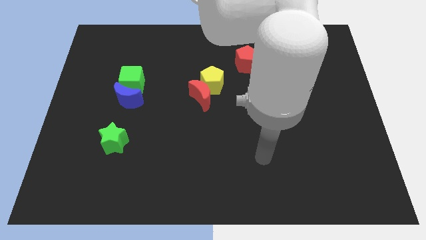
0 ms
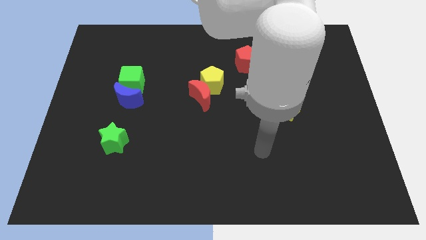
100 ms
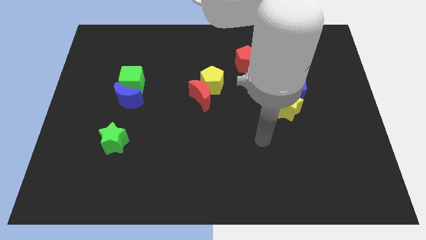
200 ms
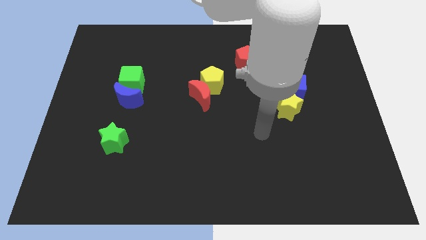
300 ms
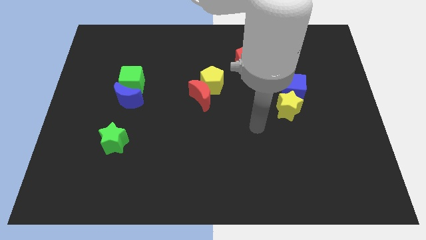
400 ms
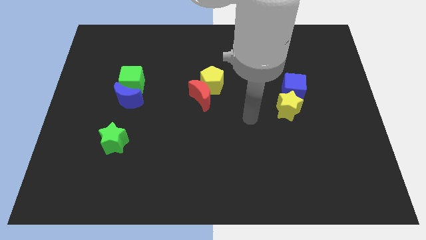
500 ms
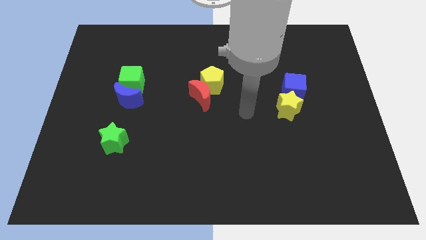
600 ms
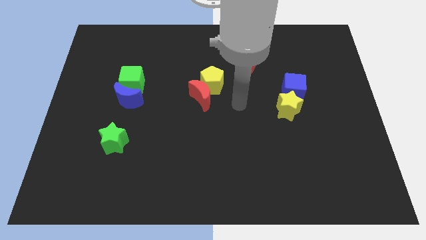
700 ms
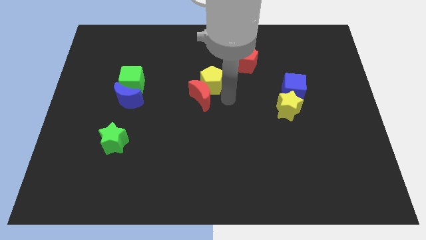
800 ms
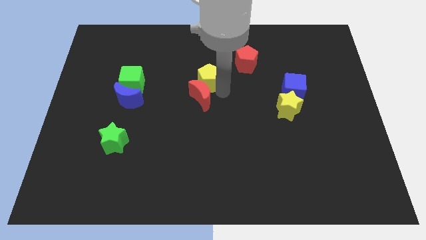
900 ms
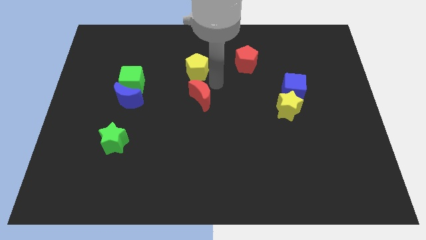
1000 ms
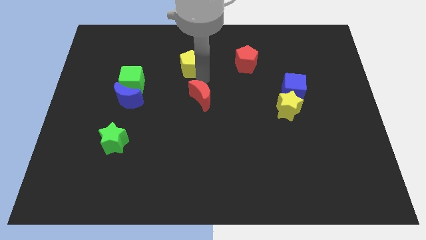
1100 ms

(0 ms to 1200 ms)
move the red moon away from the yellow pentagon

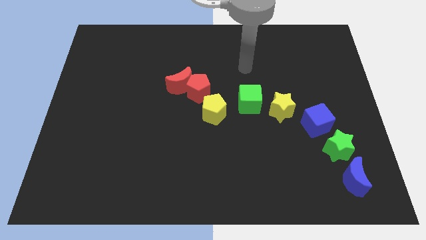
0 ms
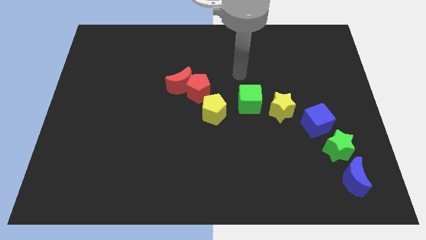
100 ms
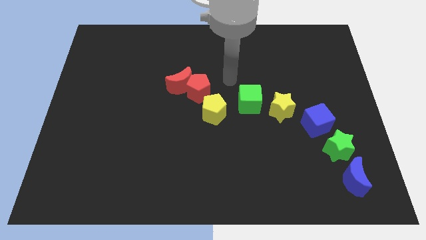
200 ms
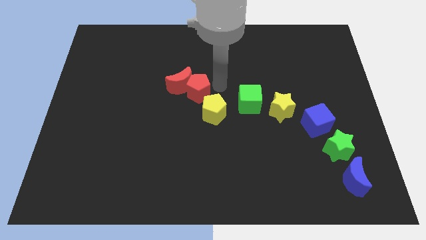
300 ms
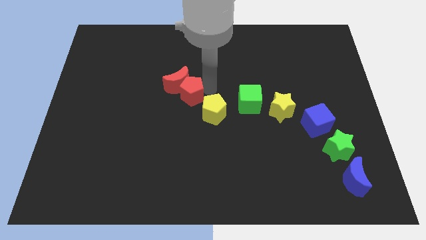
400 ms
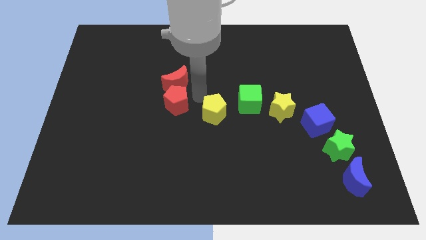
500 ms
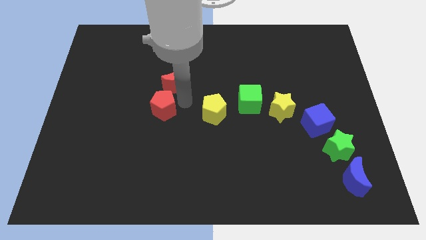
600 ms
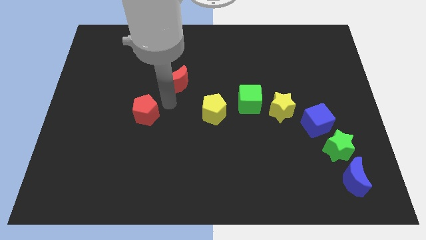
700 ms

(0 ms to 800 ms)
move the red moon away from the red pentagon

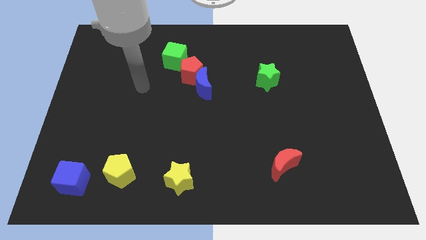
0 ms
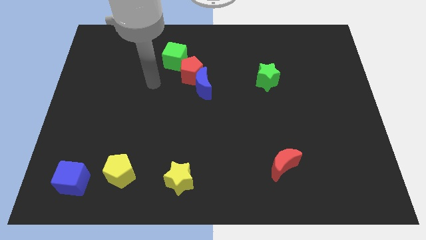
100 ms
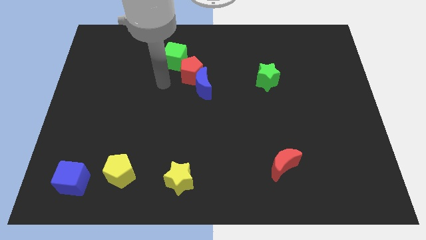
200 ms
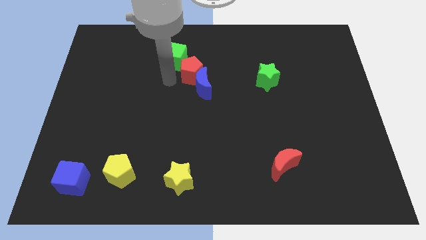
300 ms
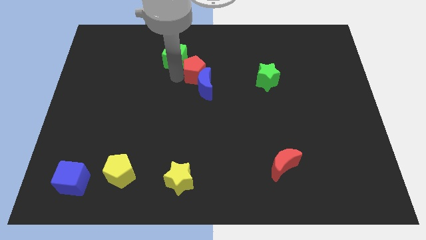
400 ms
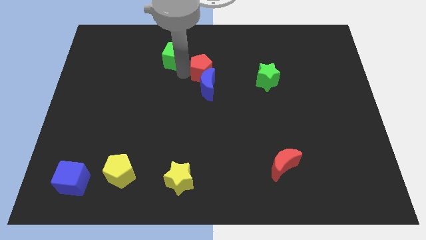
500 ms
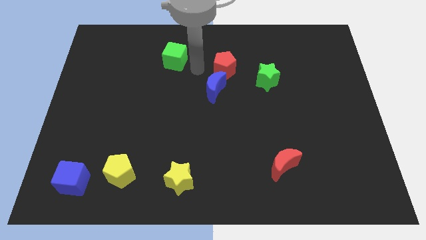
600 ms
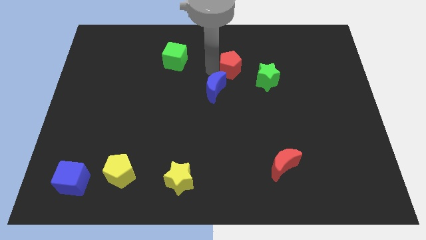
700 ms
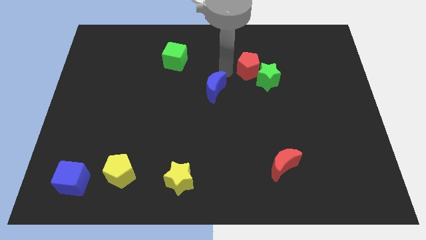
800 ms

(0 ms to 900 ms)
pull the blue moon apart from the red pentagon

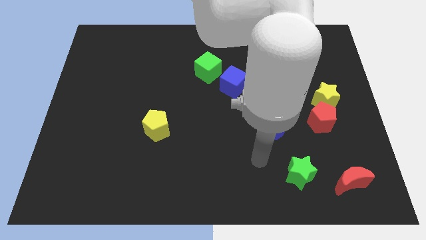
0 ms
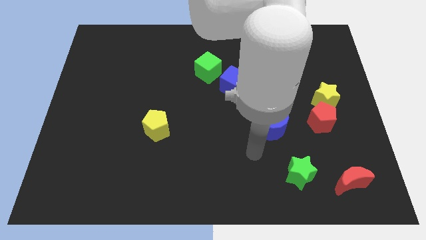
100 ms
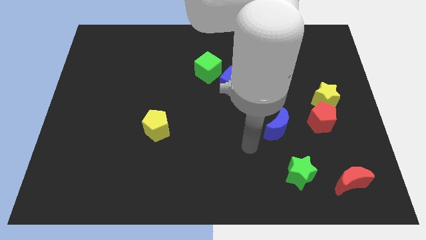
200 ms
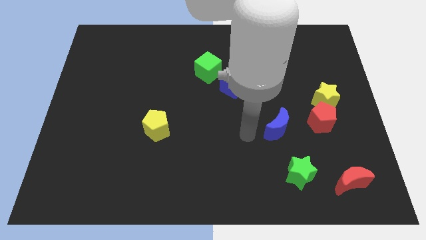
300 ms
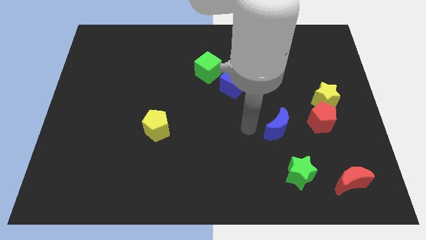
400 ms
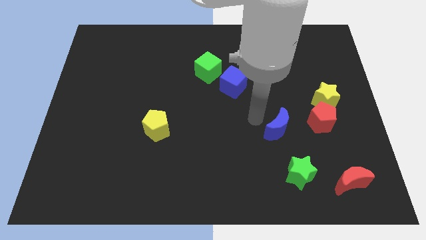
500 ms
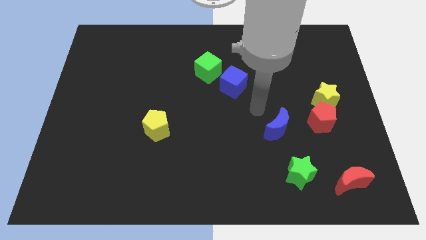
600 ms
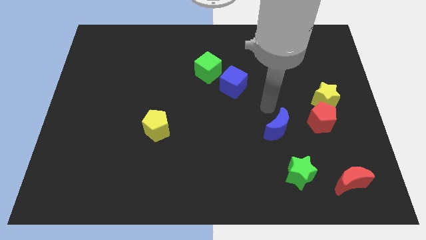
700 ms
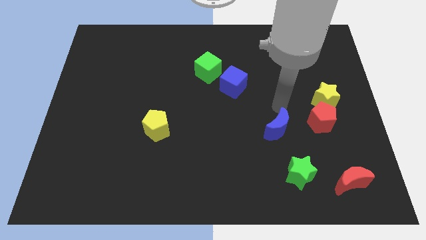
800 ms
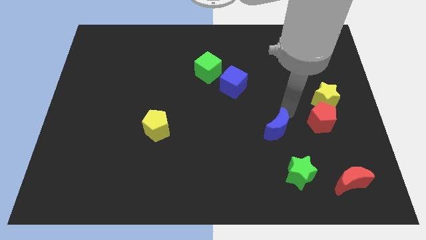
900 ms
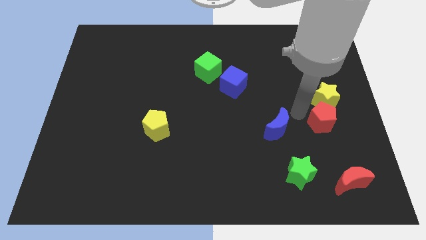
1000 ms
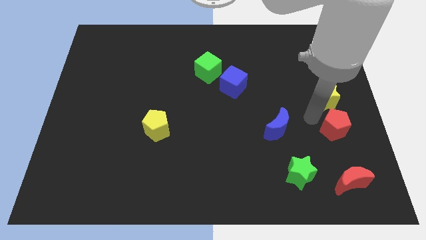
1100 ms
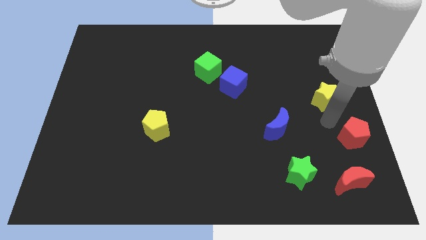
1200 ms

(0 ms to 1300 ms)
move the yellow star away from the red pentagon

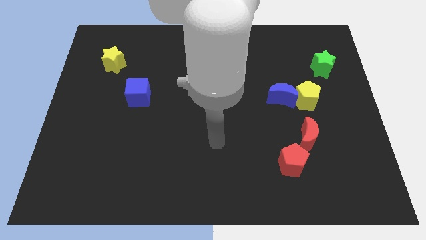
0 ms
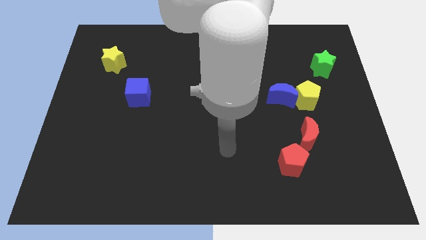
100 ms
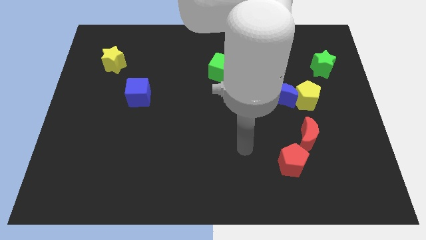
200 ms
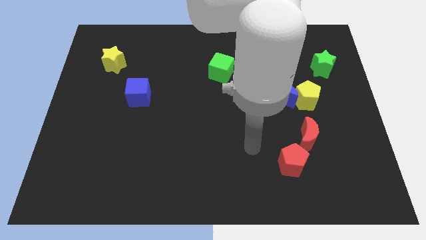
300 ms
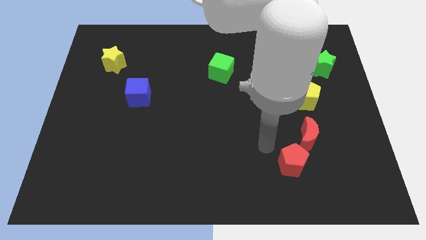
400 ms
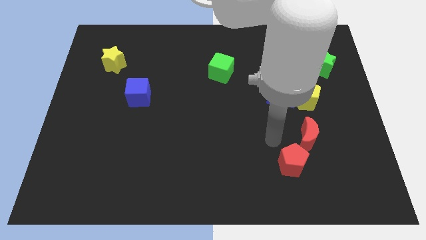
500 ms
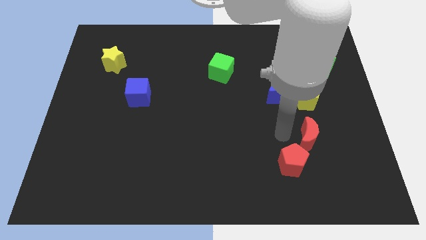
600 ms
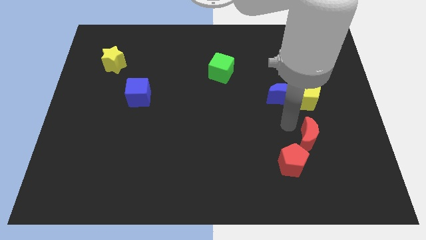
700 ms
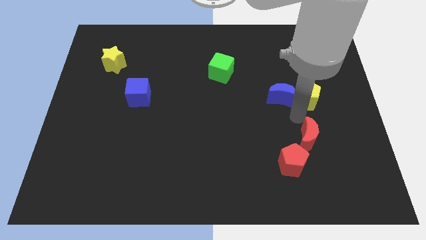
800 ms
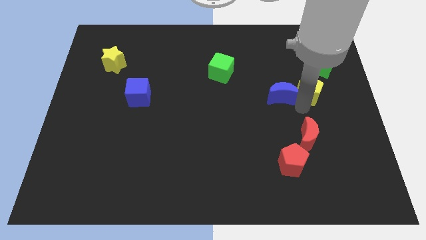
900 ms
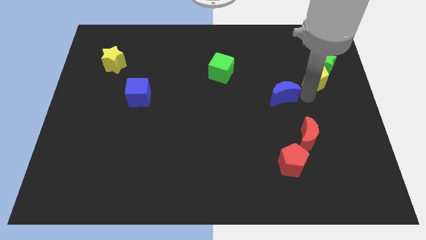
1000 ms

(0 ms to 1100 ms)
separate the blue moon from the yellow pentagon

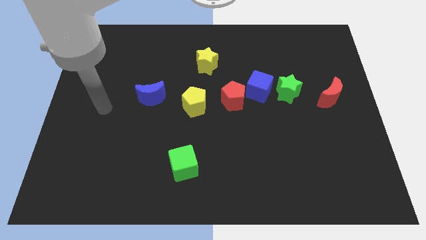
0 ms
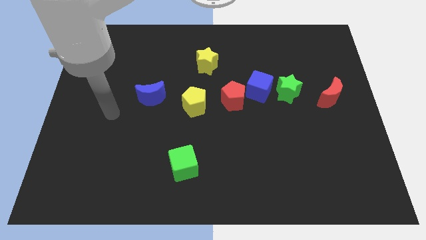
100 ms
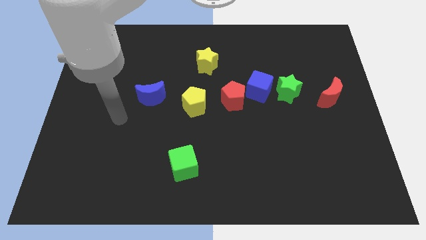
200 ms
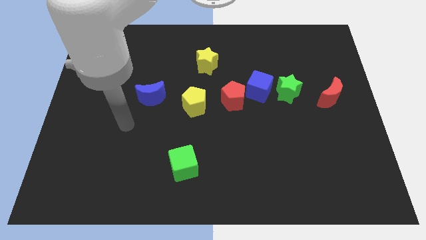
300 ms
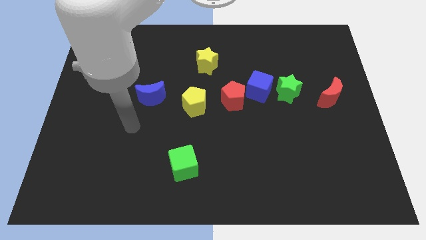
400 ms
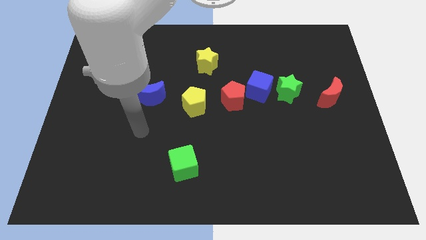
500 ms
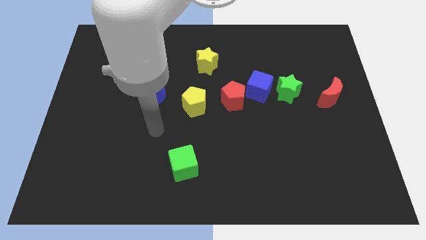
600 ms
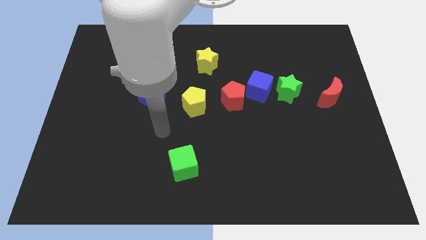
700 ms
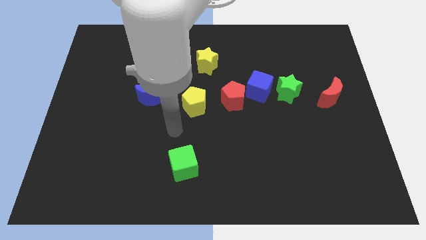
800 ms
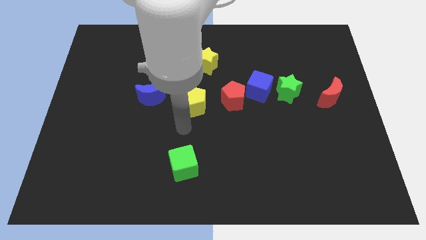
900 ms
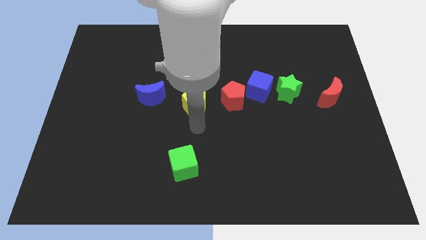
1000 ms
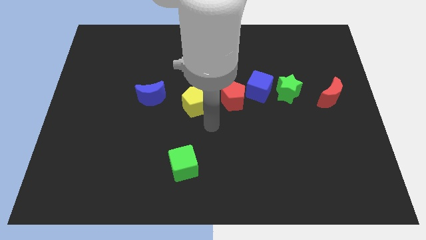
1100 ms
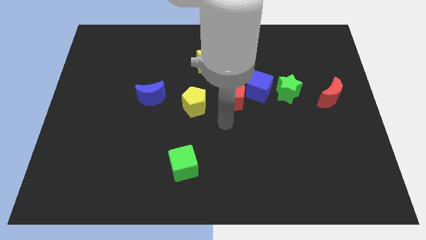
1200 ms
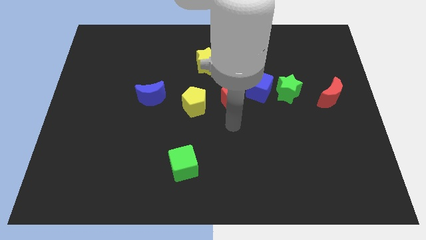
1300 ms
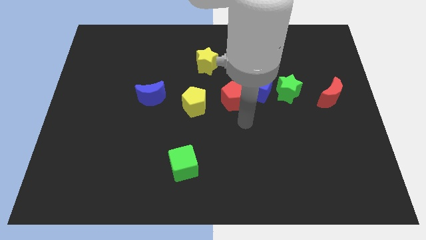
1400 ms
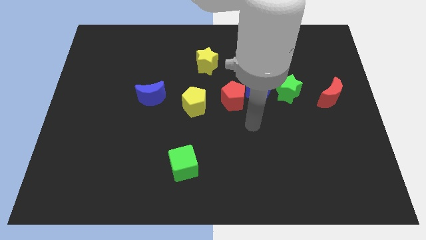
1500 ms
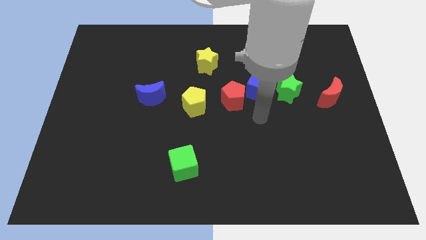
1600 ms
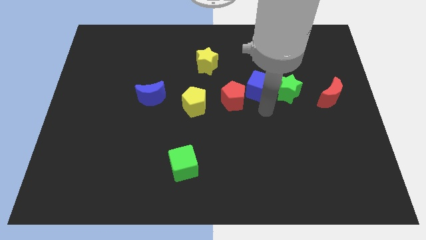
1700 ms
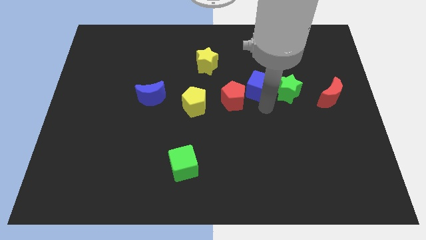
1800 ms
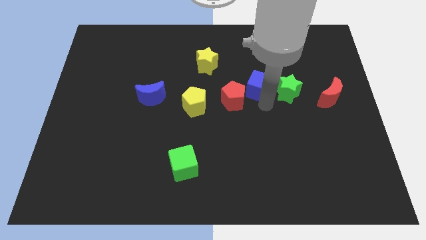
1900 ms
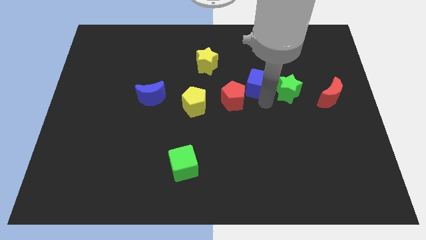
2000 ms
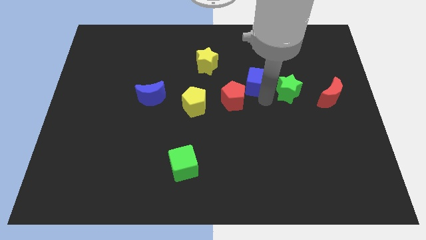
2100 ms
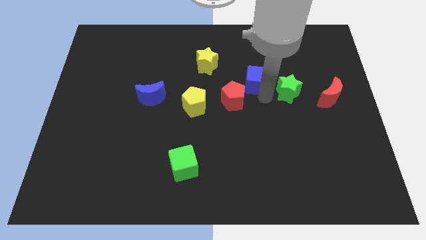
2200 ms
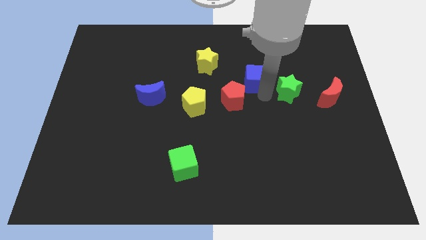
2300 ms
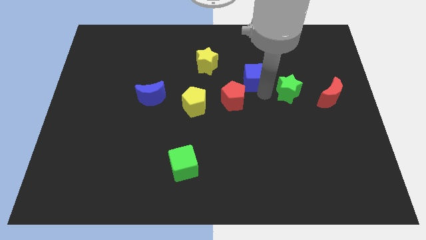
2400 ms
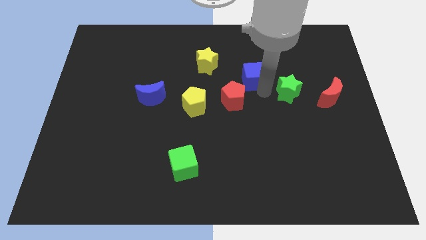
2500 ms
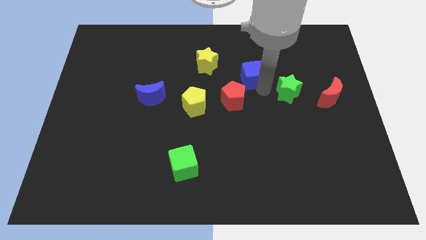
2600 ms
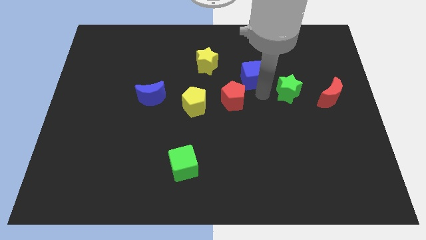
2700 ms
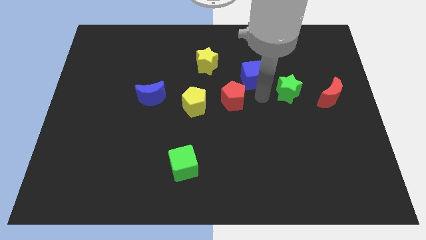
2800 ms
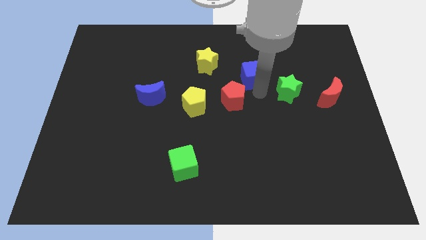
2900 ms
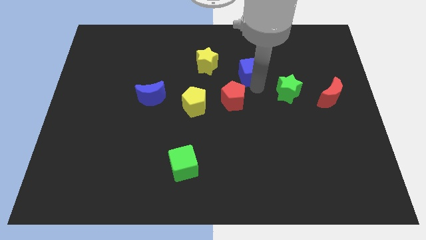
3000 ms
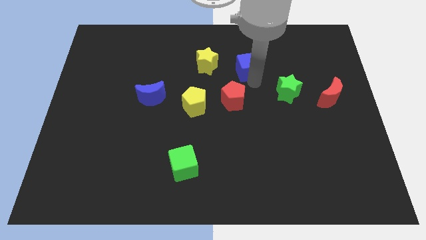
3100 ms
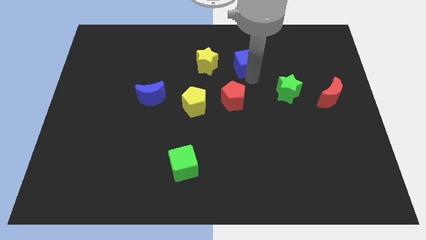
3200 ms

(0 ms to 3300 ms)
pull the blue cube apart from the red pentagon and green star

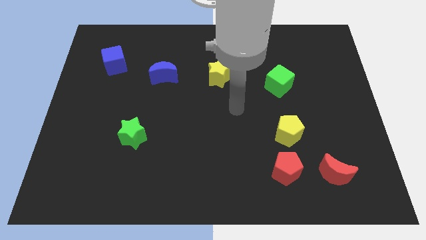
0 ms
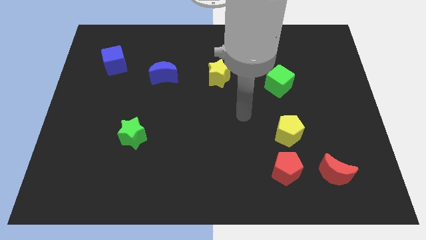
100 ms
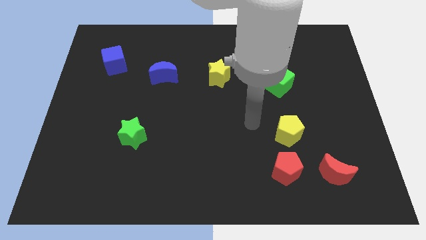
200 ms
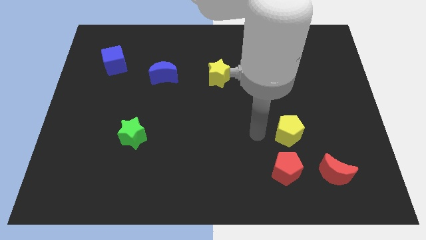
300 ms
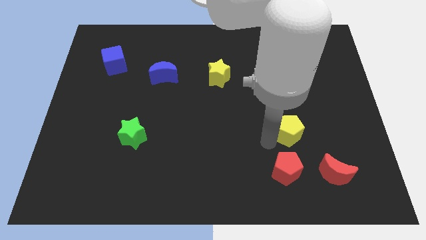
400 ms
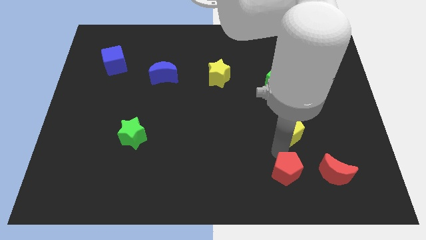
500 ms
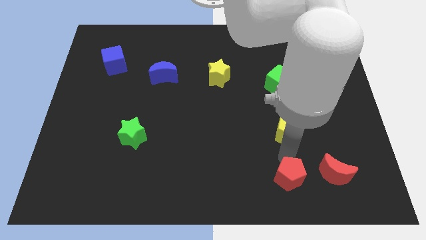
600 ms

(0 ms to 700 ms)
move the yellow pentagon away from the red pentagon
